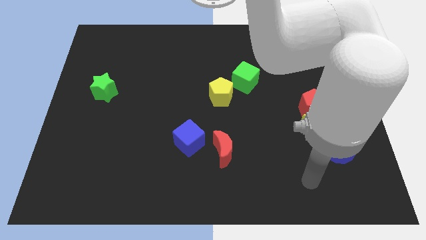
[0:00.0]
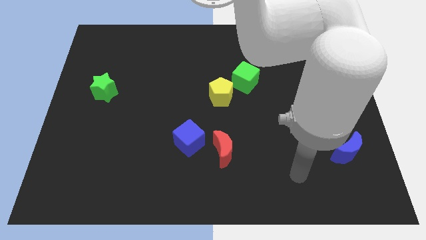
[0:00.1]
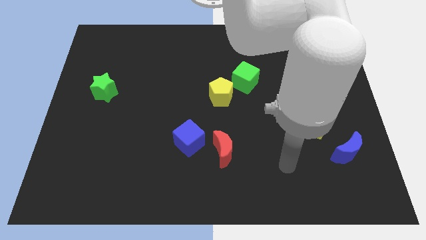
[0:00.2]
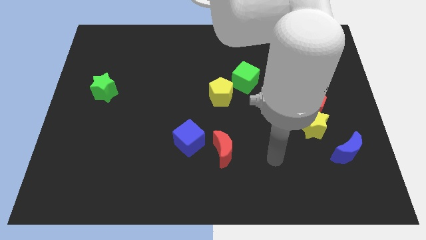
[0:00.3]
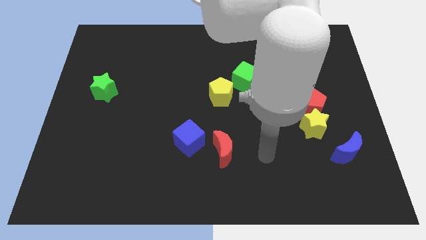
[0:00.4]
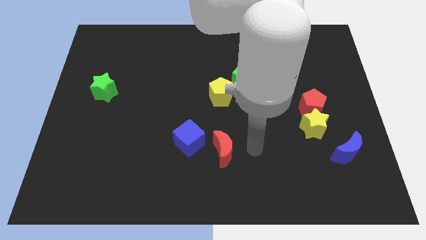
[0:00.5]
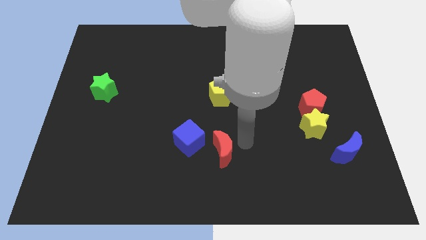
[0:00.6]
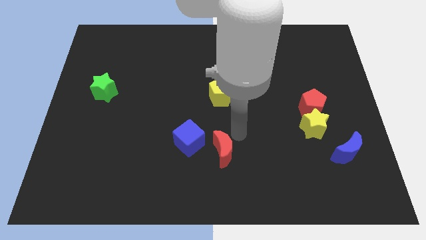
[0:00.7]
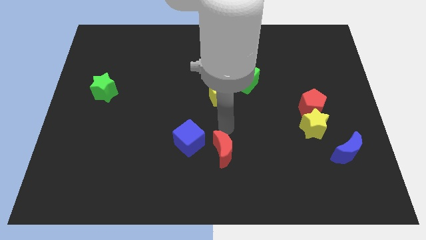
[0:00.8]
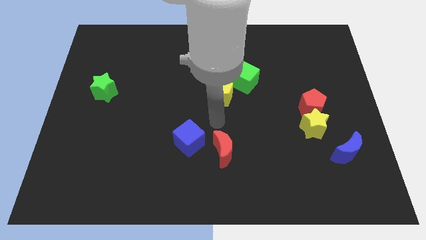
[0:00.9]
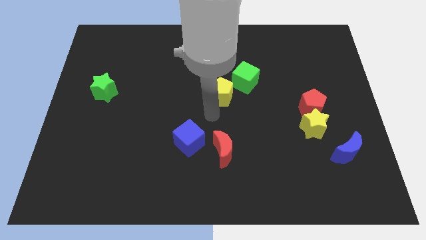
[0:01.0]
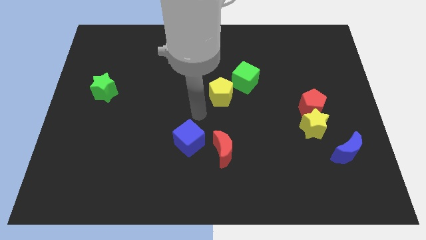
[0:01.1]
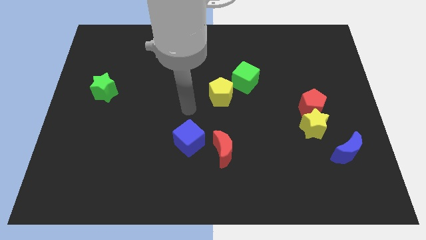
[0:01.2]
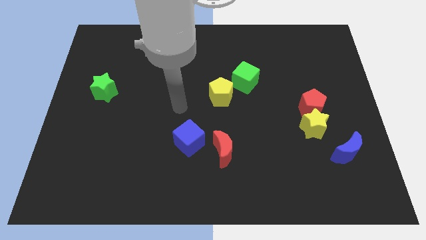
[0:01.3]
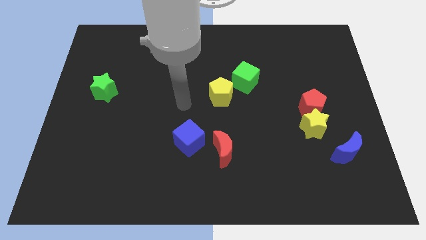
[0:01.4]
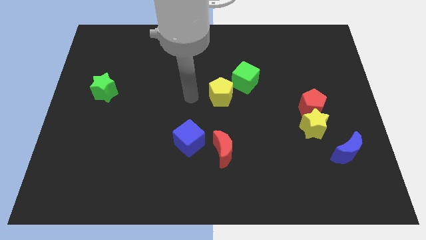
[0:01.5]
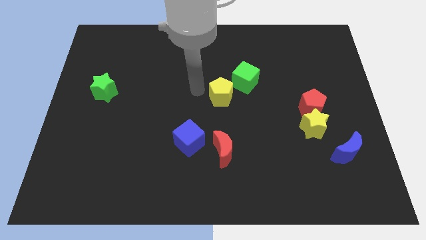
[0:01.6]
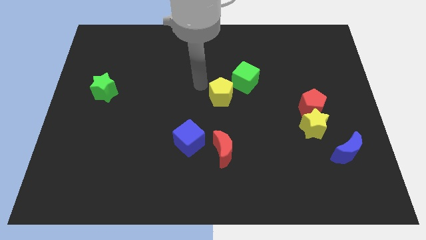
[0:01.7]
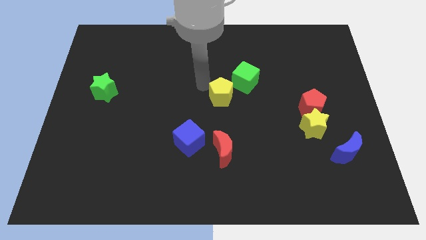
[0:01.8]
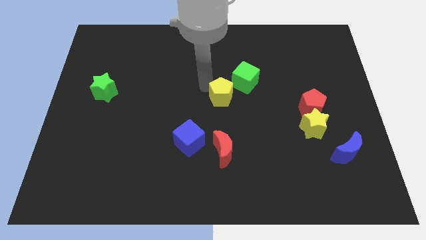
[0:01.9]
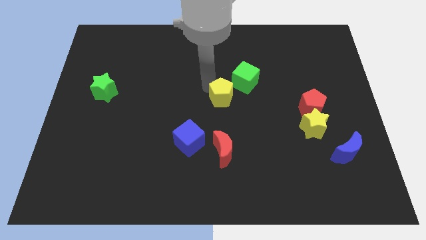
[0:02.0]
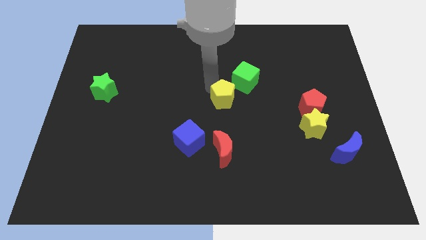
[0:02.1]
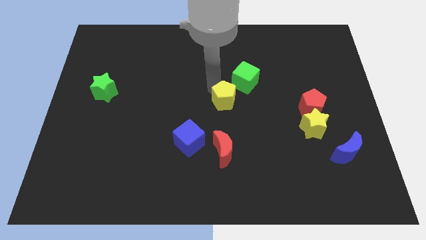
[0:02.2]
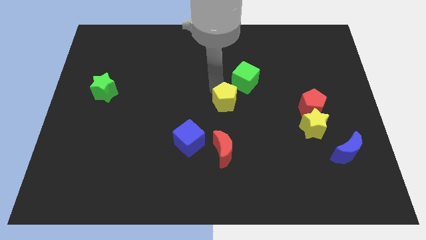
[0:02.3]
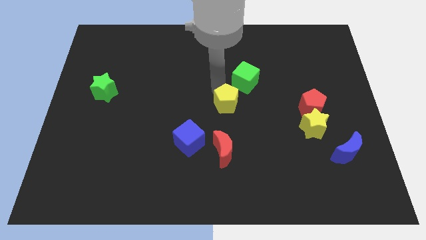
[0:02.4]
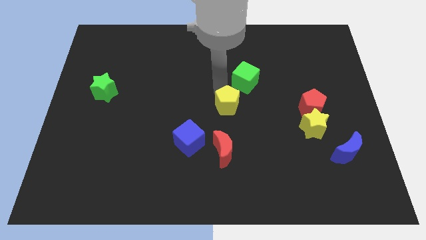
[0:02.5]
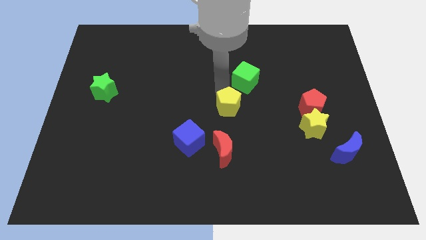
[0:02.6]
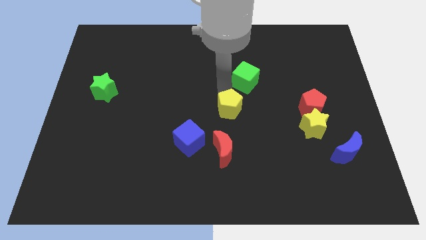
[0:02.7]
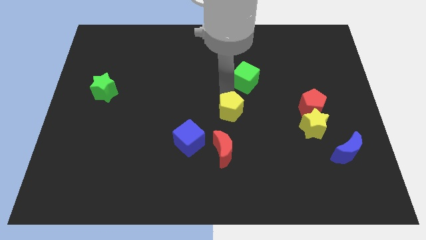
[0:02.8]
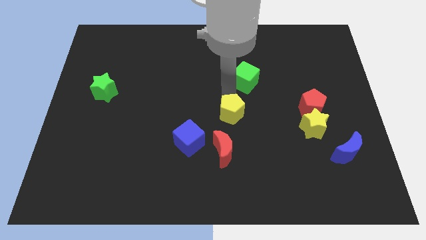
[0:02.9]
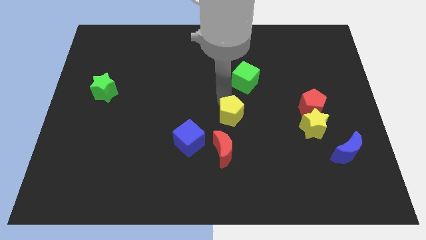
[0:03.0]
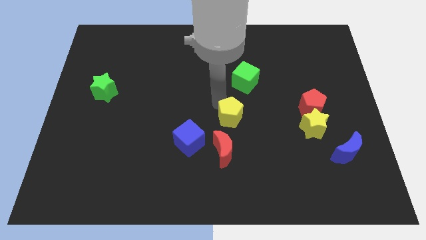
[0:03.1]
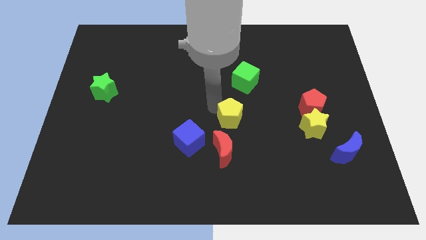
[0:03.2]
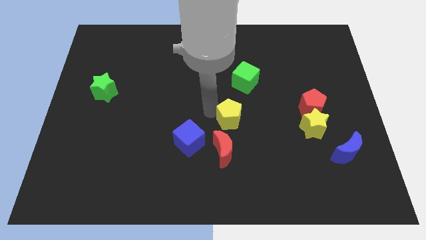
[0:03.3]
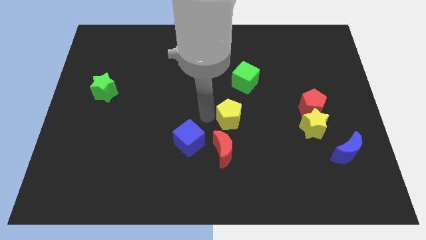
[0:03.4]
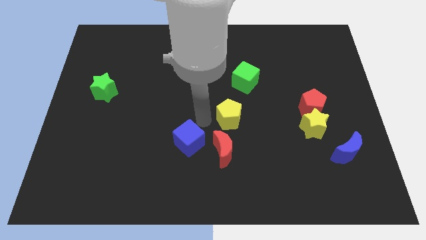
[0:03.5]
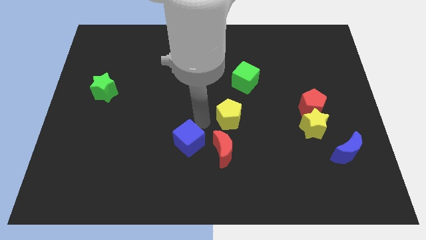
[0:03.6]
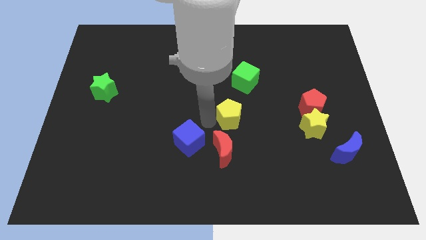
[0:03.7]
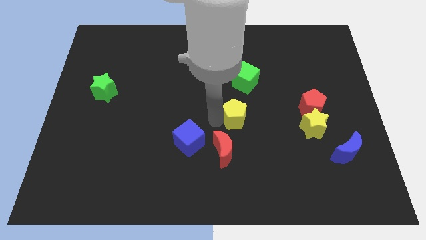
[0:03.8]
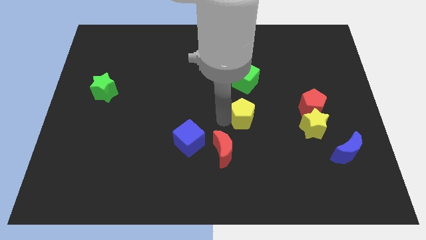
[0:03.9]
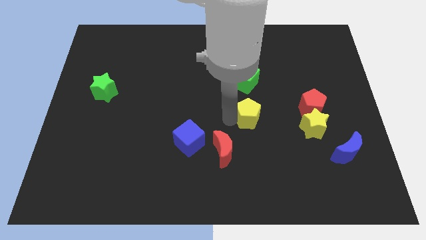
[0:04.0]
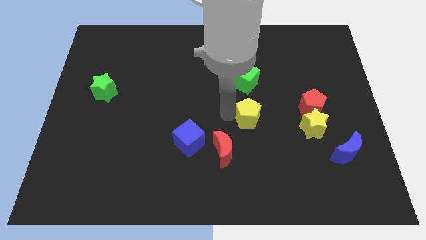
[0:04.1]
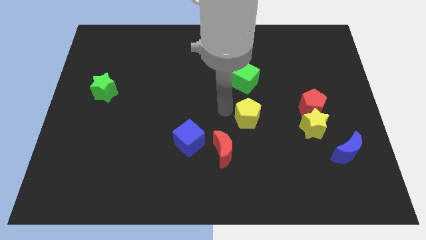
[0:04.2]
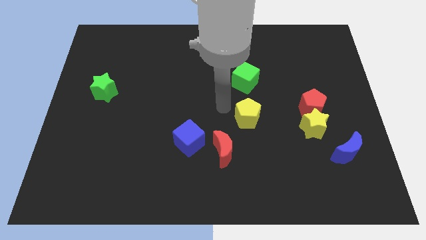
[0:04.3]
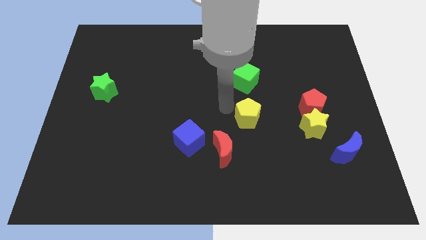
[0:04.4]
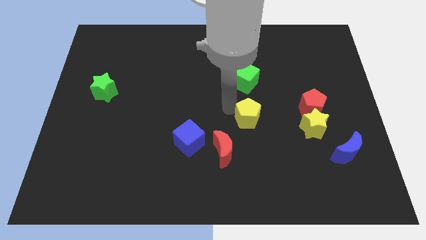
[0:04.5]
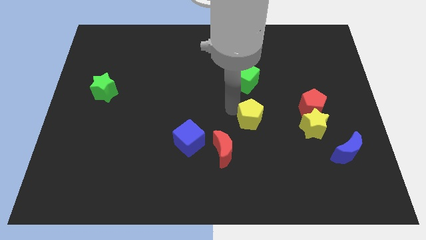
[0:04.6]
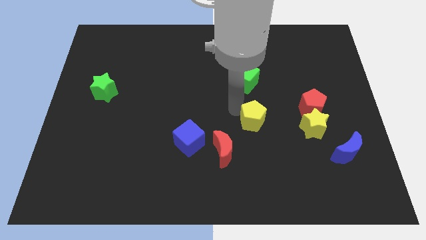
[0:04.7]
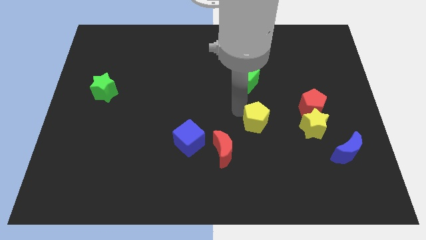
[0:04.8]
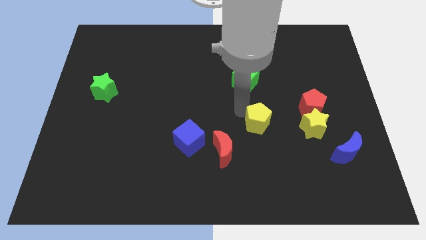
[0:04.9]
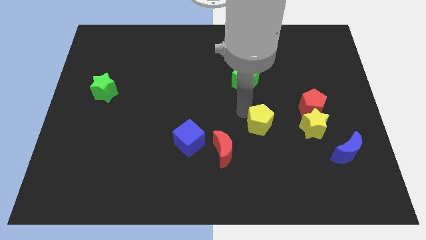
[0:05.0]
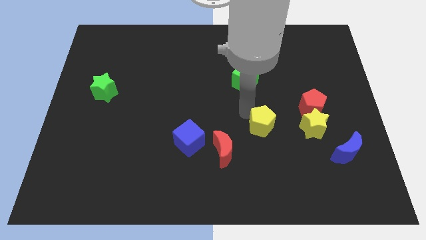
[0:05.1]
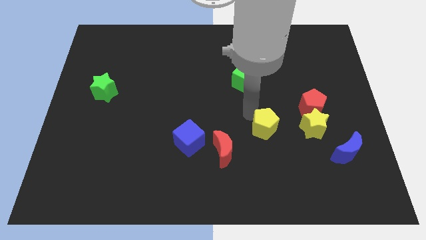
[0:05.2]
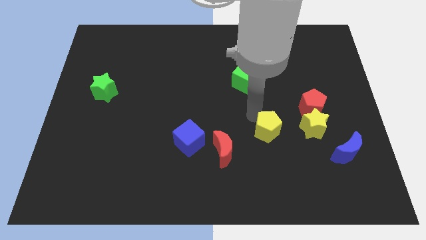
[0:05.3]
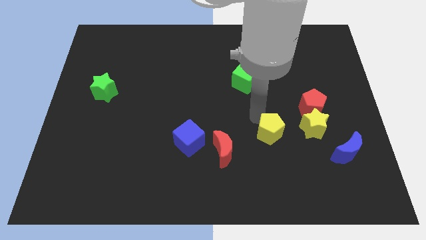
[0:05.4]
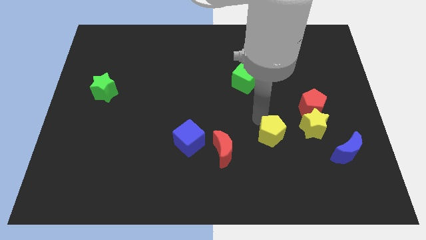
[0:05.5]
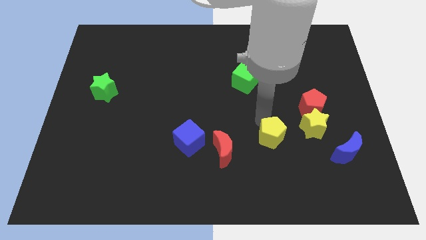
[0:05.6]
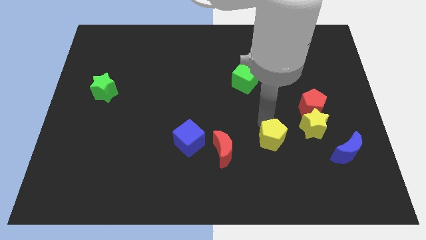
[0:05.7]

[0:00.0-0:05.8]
move the yellow pentagon diagonally down and to the left of the yellow star

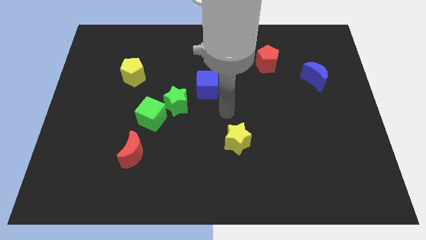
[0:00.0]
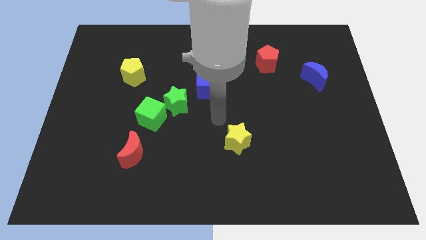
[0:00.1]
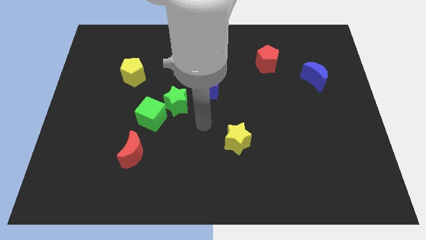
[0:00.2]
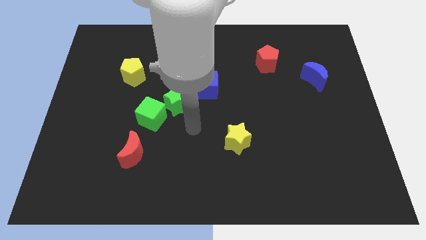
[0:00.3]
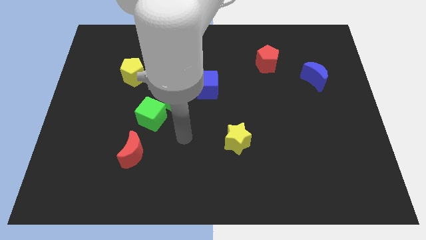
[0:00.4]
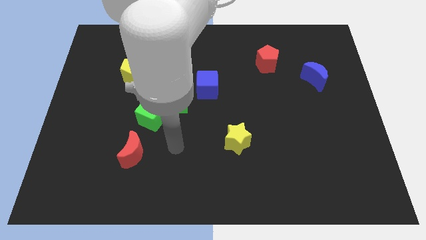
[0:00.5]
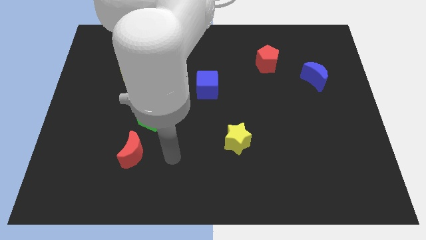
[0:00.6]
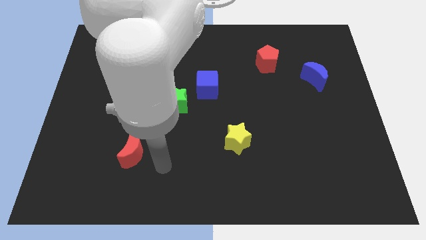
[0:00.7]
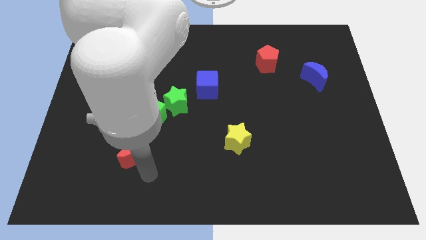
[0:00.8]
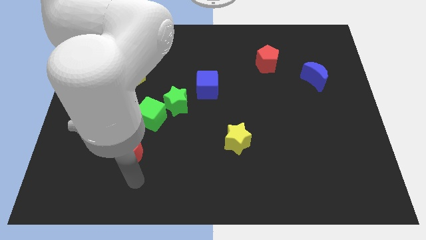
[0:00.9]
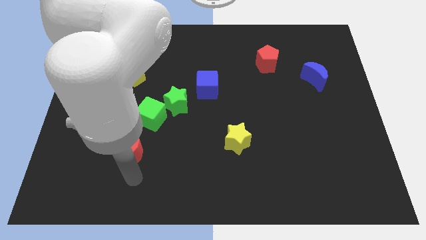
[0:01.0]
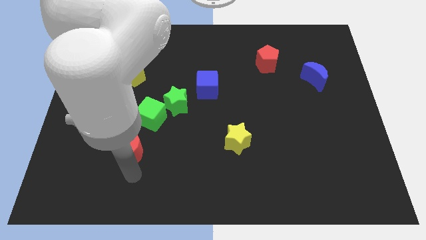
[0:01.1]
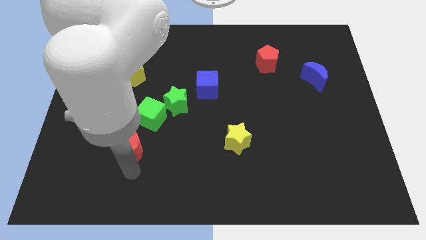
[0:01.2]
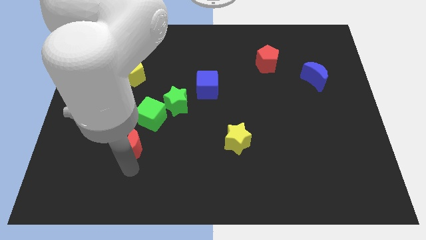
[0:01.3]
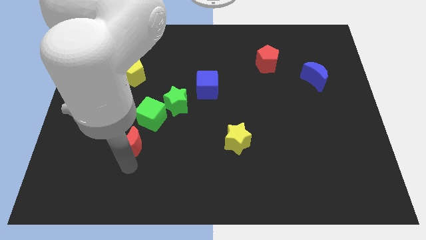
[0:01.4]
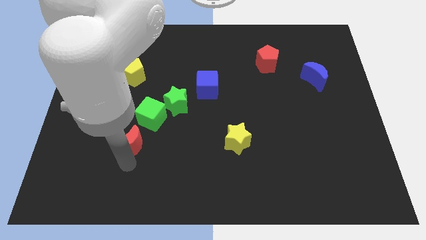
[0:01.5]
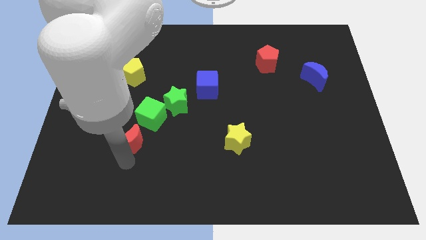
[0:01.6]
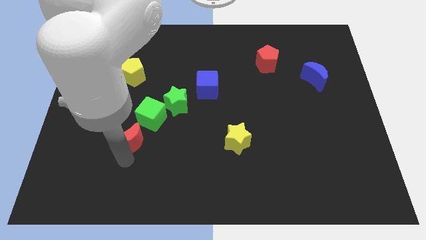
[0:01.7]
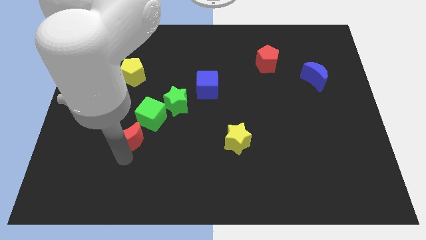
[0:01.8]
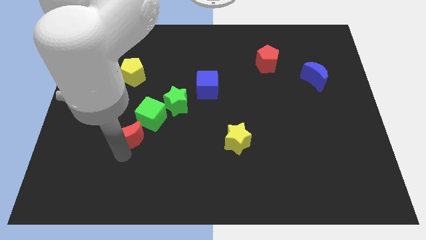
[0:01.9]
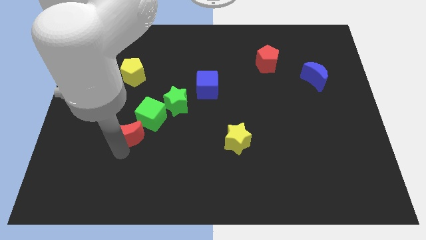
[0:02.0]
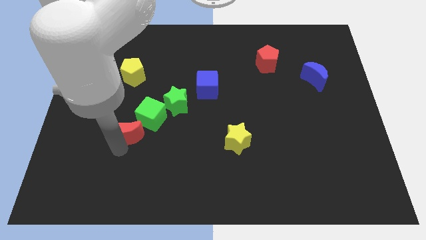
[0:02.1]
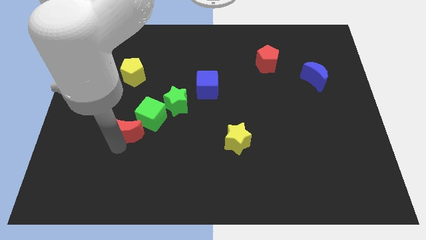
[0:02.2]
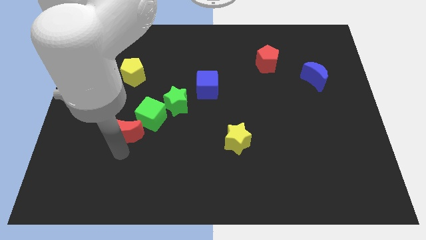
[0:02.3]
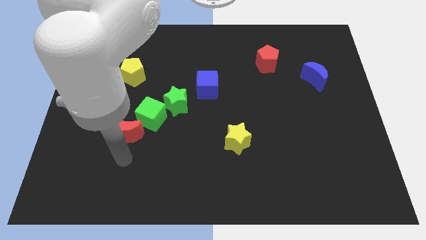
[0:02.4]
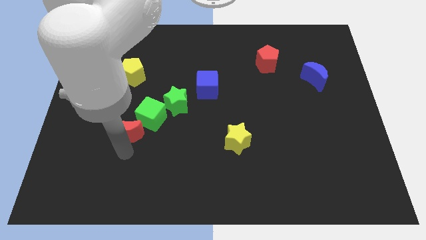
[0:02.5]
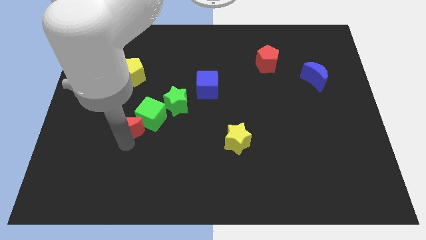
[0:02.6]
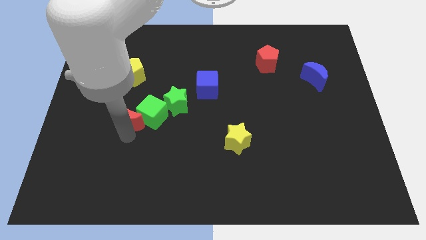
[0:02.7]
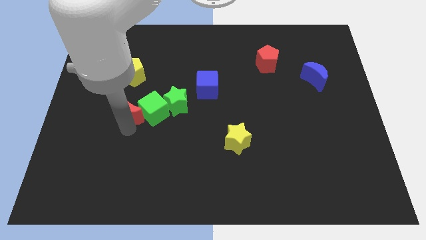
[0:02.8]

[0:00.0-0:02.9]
slide the red moon to the top left side of the green cube
